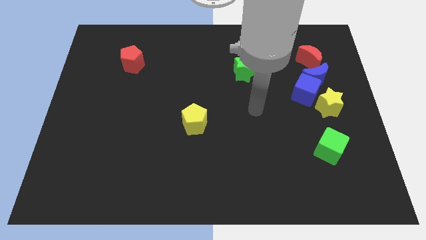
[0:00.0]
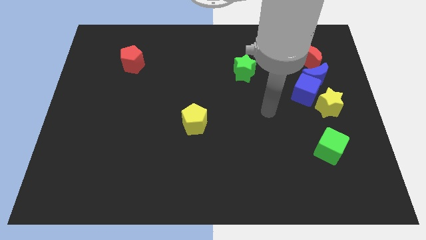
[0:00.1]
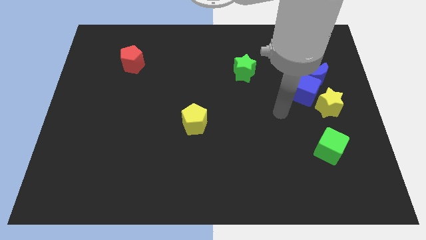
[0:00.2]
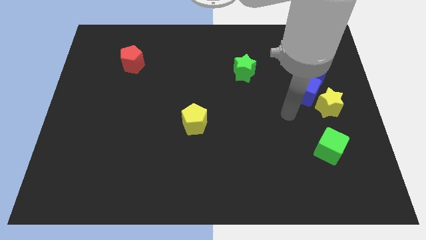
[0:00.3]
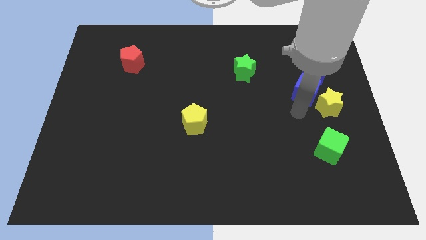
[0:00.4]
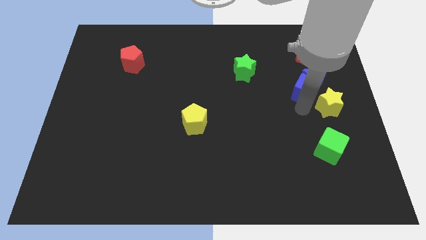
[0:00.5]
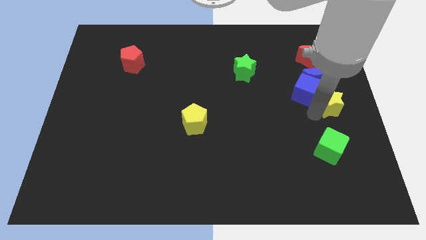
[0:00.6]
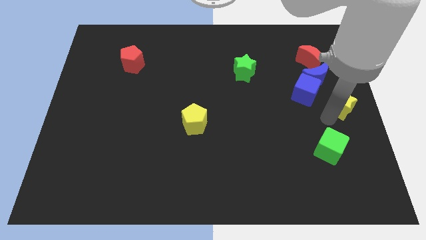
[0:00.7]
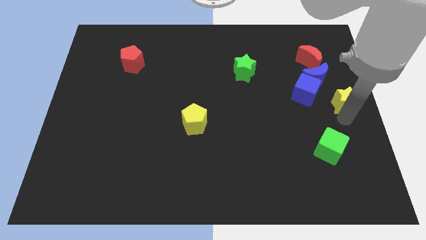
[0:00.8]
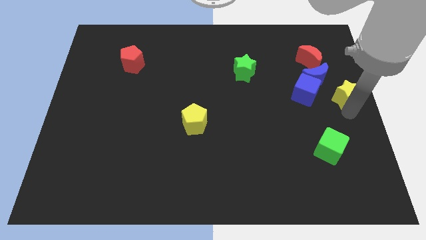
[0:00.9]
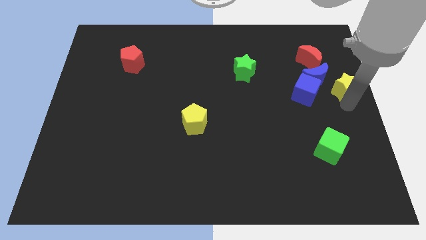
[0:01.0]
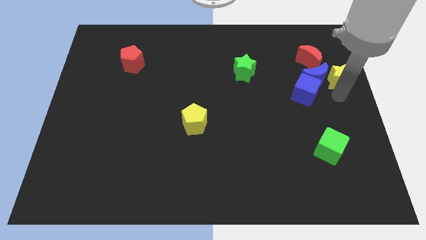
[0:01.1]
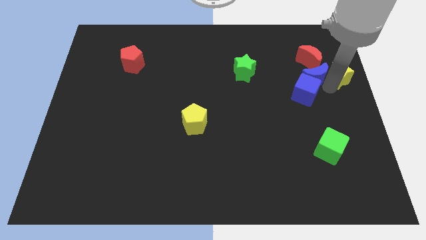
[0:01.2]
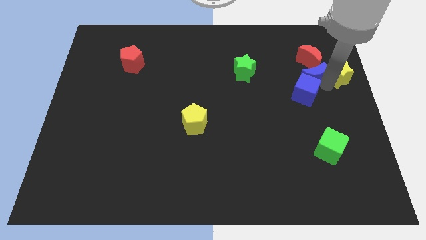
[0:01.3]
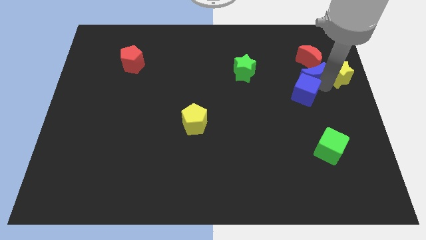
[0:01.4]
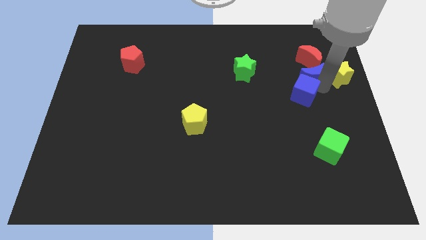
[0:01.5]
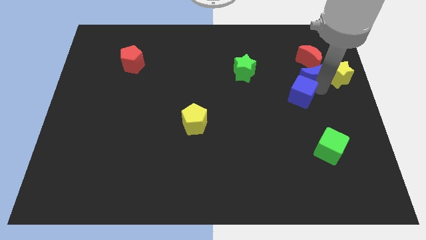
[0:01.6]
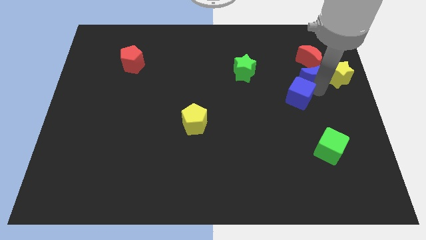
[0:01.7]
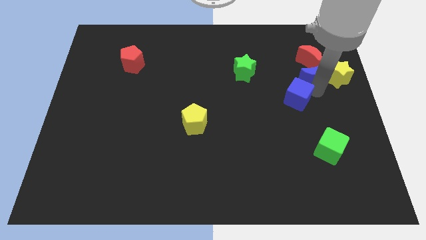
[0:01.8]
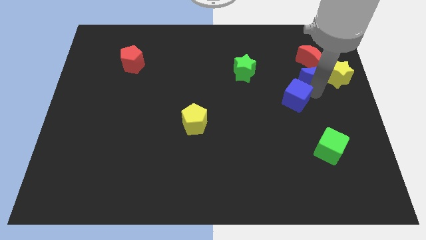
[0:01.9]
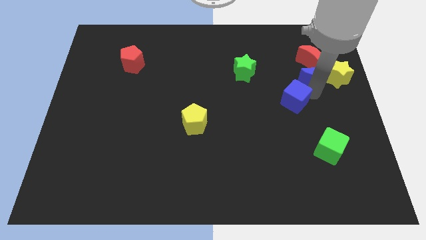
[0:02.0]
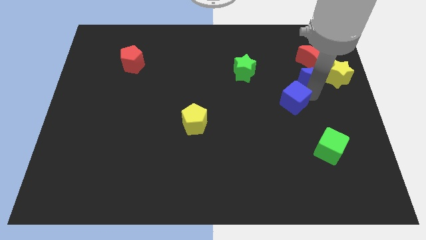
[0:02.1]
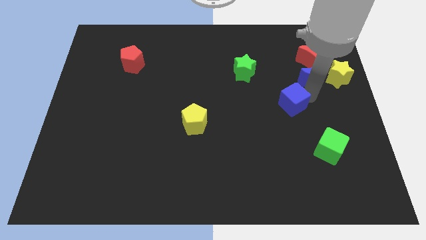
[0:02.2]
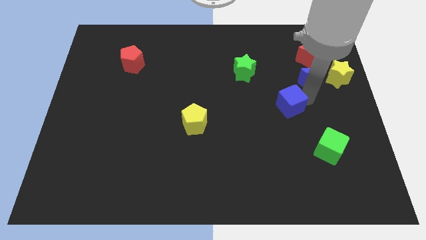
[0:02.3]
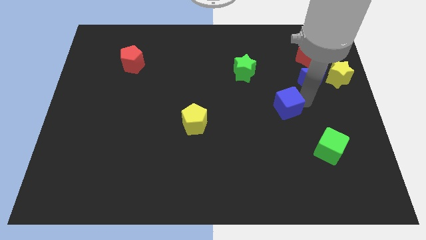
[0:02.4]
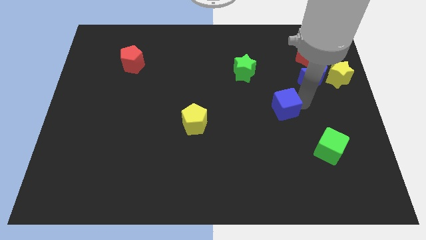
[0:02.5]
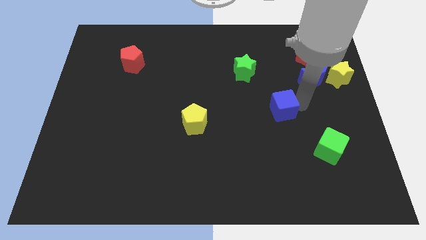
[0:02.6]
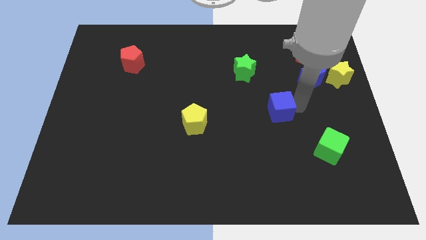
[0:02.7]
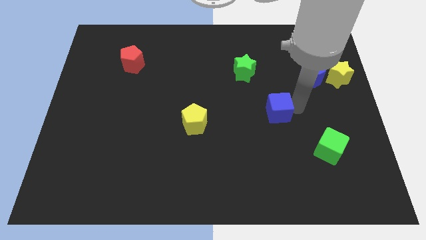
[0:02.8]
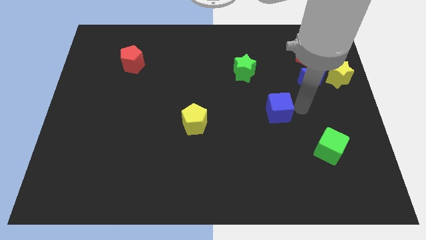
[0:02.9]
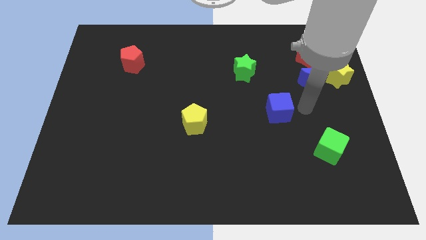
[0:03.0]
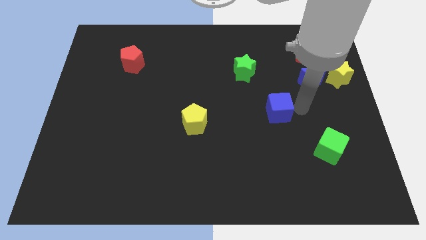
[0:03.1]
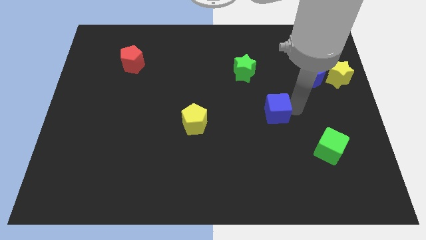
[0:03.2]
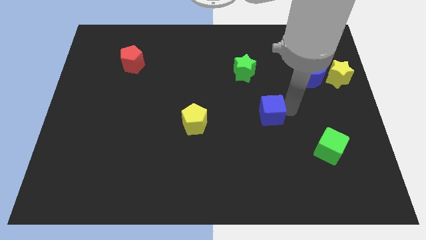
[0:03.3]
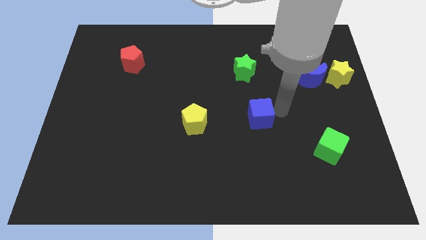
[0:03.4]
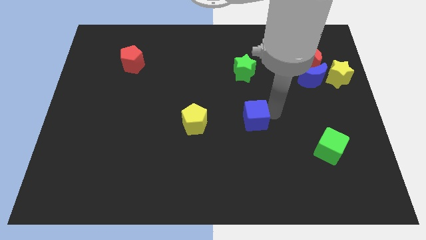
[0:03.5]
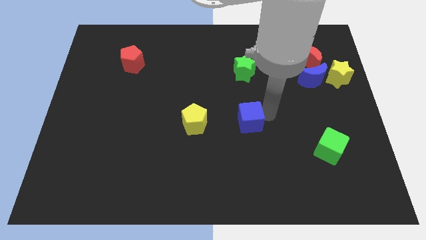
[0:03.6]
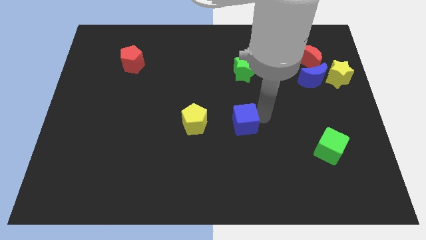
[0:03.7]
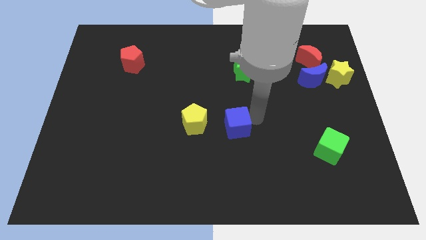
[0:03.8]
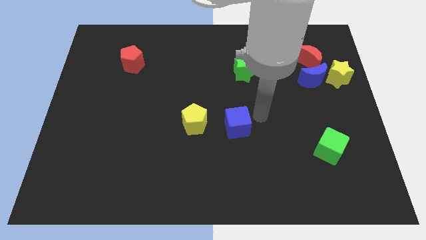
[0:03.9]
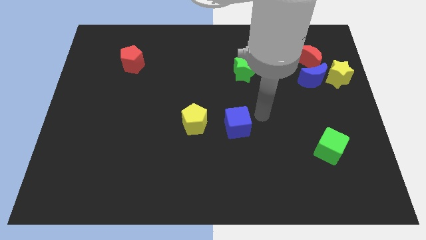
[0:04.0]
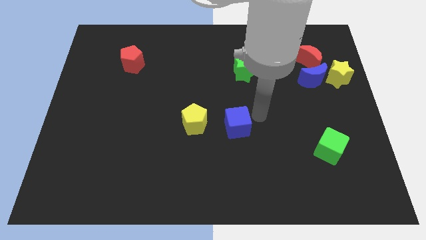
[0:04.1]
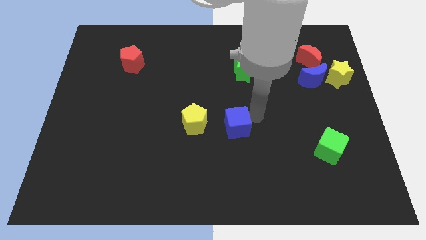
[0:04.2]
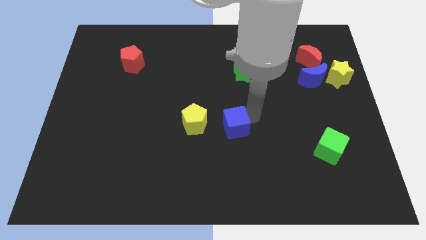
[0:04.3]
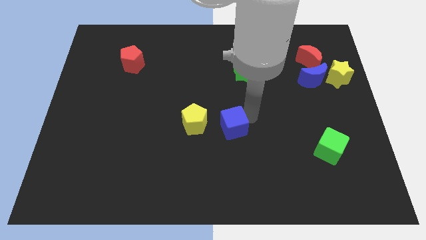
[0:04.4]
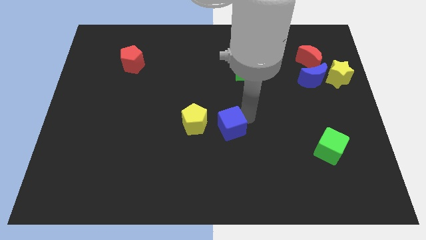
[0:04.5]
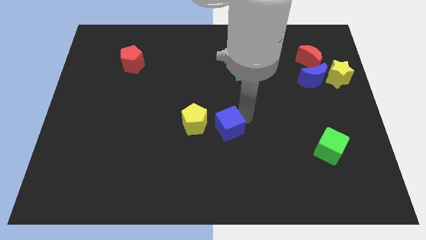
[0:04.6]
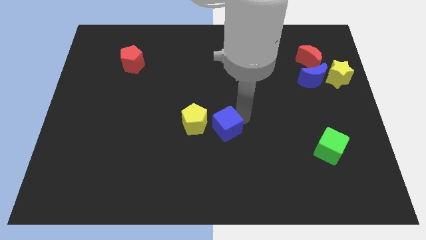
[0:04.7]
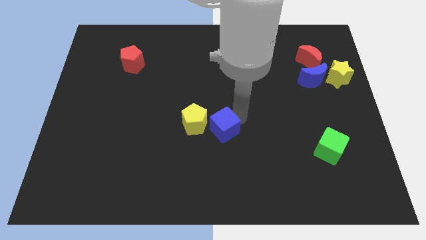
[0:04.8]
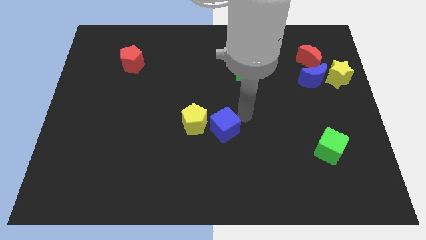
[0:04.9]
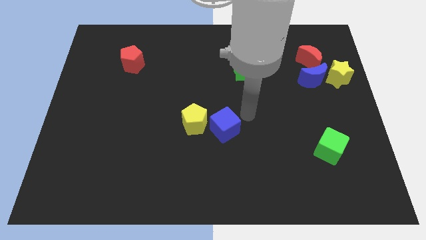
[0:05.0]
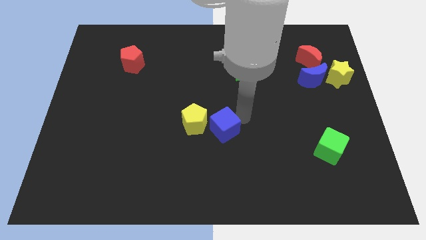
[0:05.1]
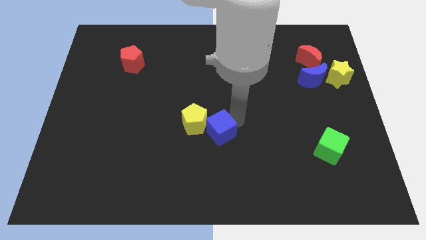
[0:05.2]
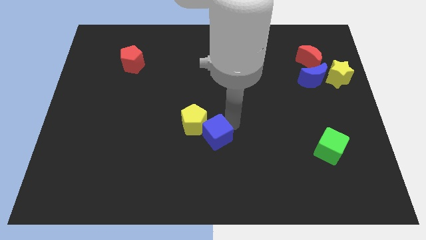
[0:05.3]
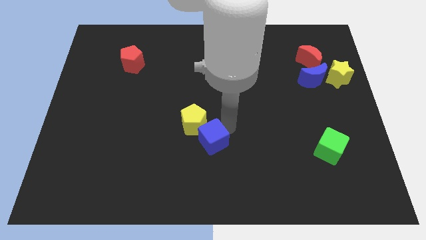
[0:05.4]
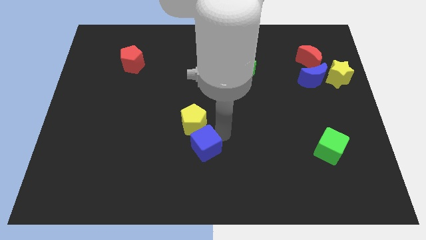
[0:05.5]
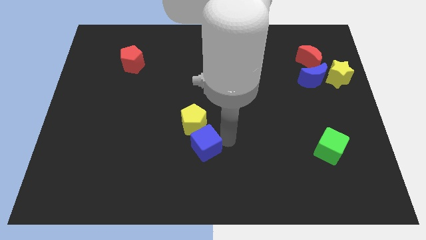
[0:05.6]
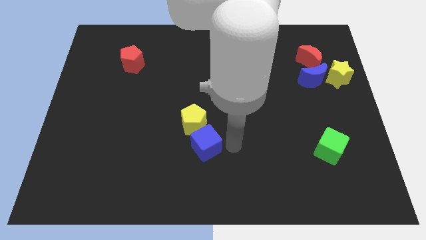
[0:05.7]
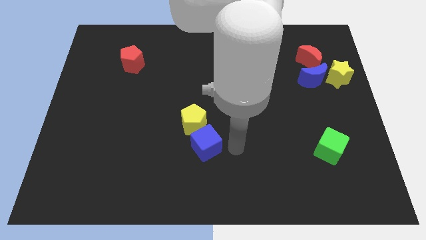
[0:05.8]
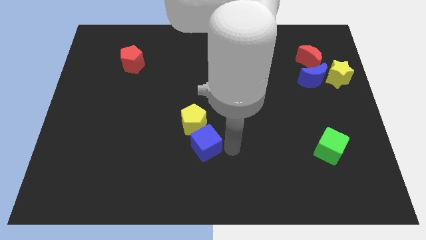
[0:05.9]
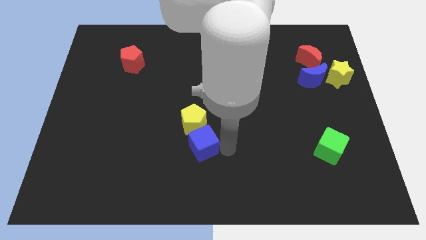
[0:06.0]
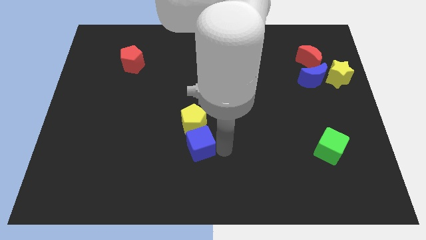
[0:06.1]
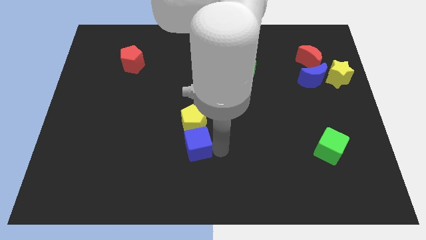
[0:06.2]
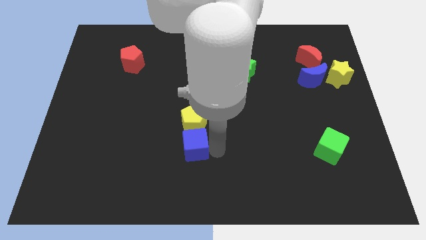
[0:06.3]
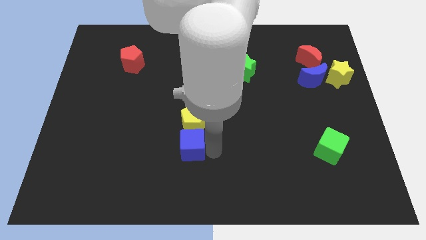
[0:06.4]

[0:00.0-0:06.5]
put the blue cube to the bottom left side of the yellow pentagon
